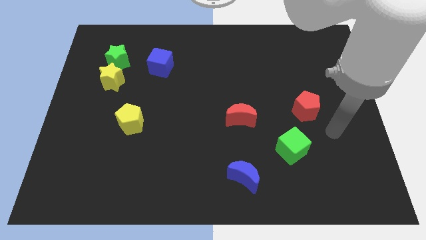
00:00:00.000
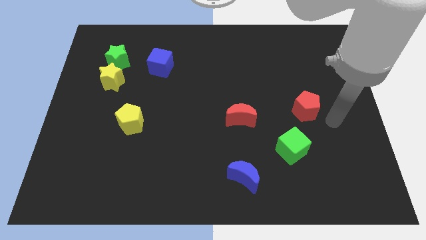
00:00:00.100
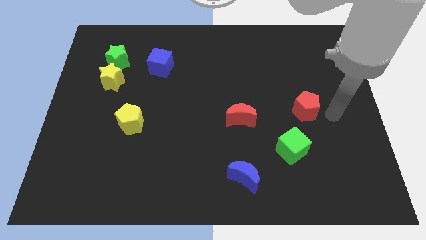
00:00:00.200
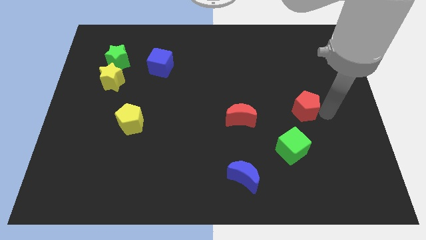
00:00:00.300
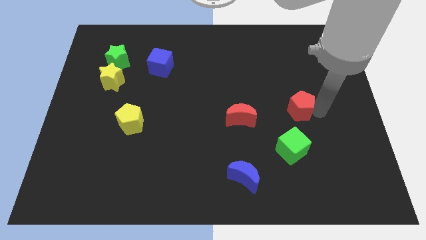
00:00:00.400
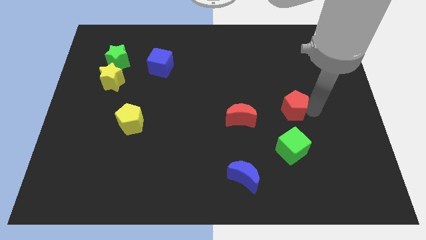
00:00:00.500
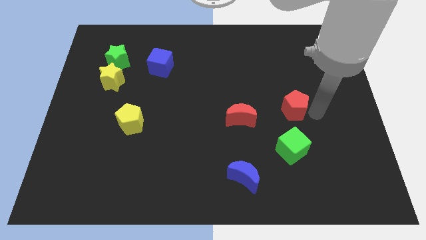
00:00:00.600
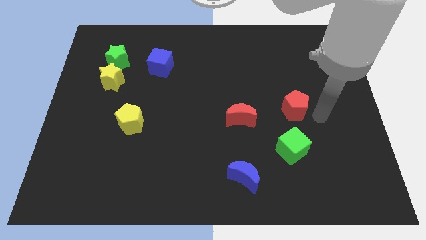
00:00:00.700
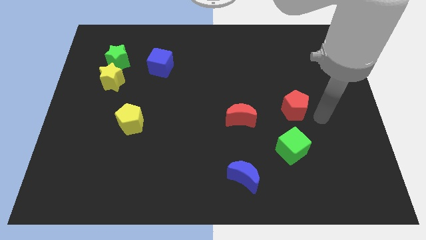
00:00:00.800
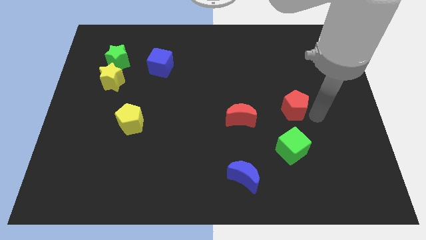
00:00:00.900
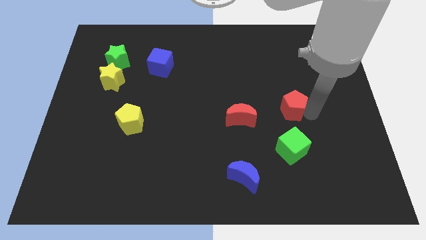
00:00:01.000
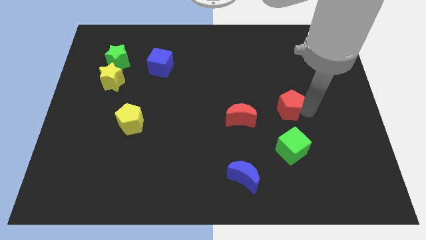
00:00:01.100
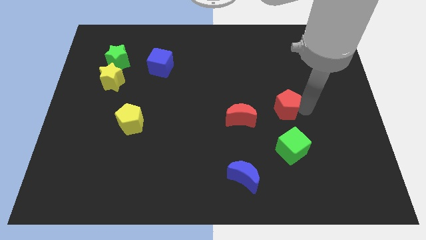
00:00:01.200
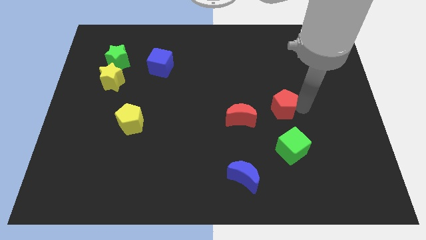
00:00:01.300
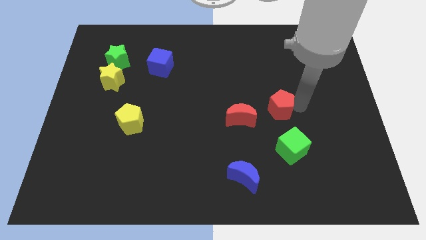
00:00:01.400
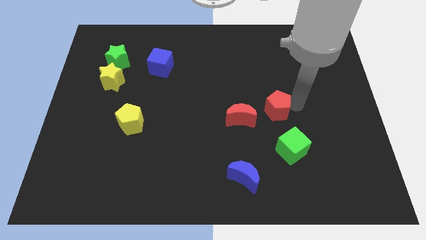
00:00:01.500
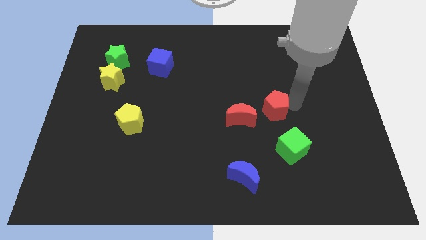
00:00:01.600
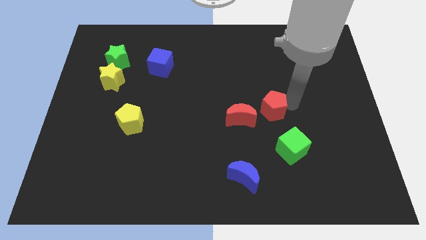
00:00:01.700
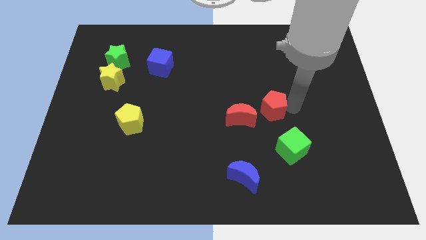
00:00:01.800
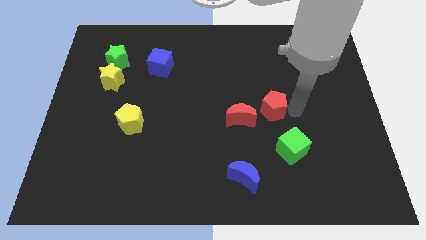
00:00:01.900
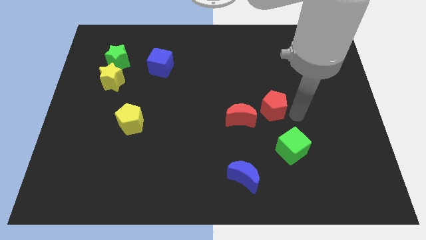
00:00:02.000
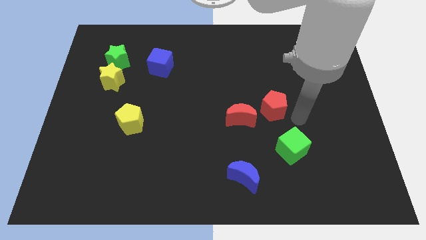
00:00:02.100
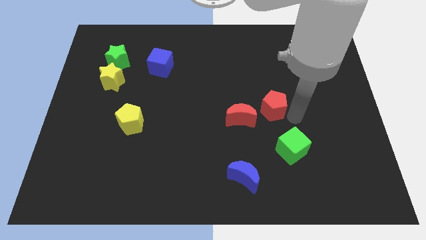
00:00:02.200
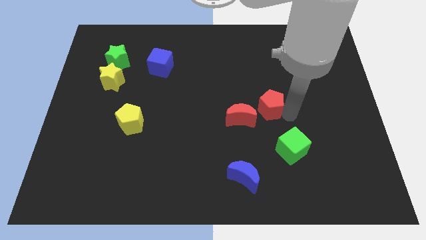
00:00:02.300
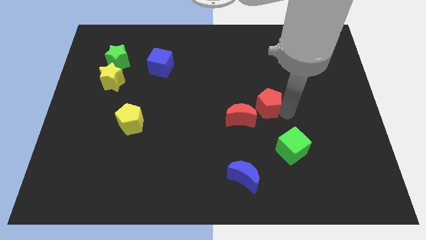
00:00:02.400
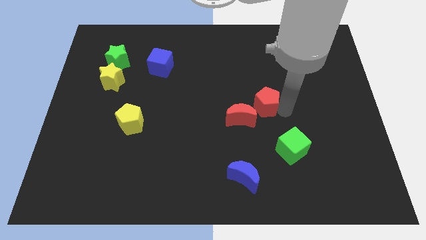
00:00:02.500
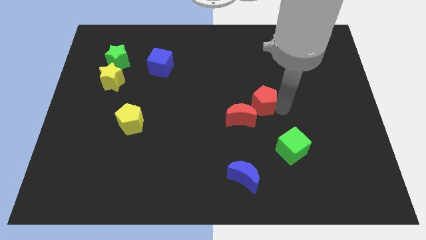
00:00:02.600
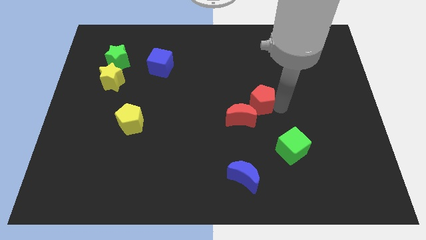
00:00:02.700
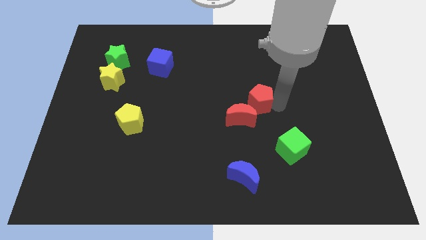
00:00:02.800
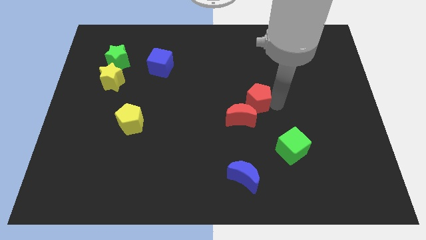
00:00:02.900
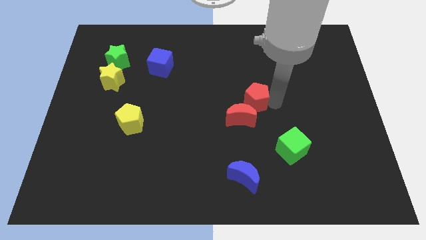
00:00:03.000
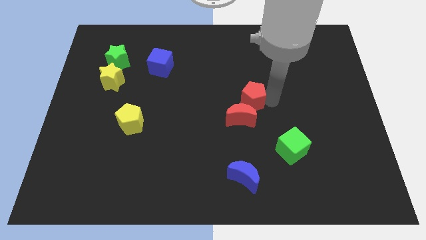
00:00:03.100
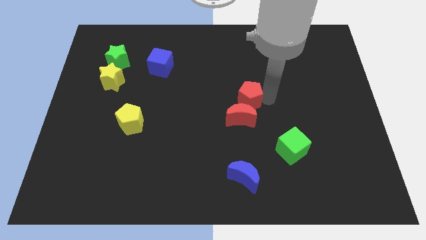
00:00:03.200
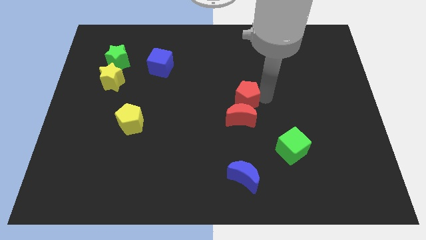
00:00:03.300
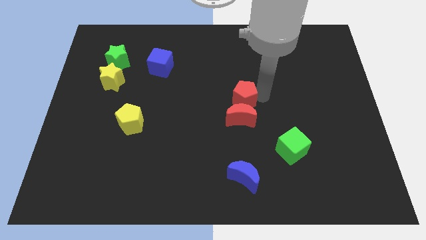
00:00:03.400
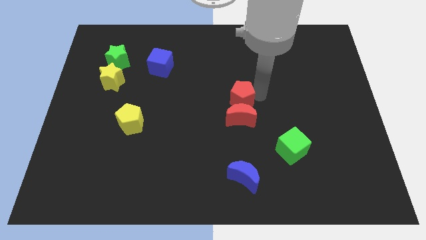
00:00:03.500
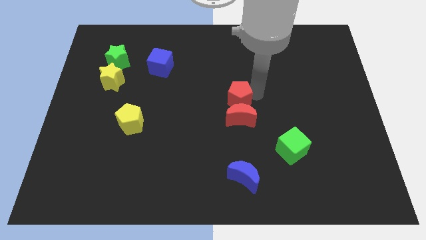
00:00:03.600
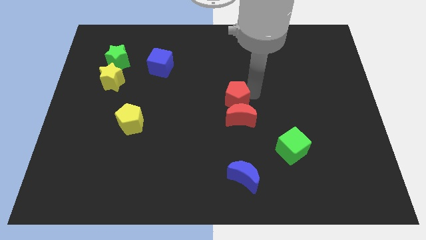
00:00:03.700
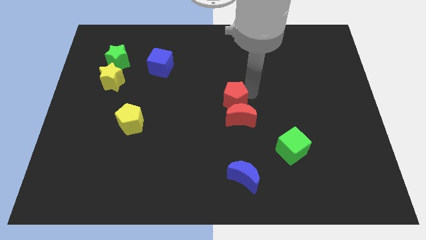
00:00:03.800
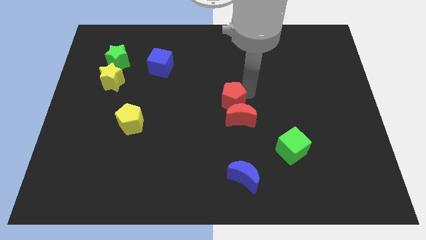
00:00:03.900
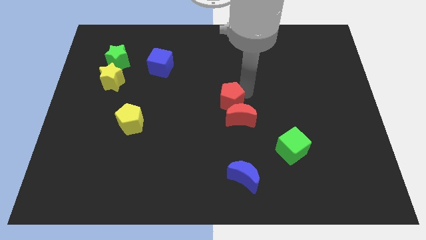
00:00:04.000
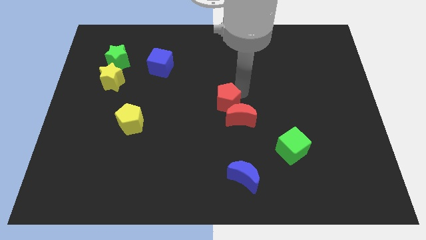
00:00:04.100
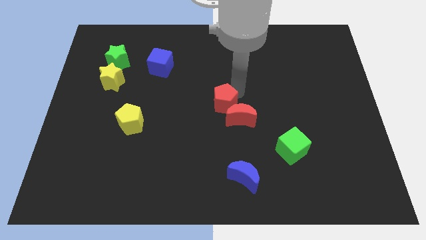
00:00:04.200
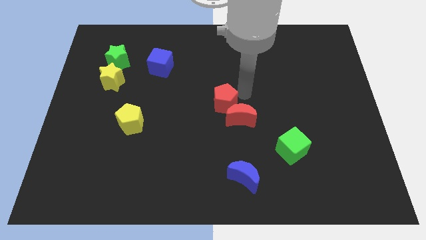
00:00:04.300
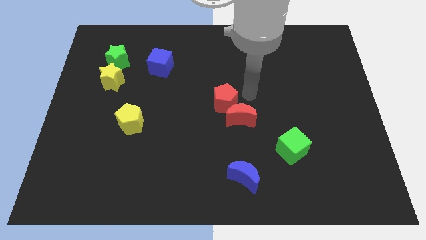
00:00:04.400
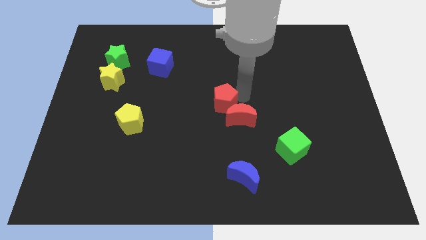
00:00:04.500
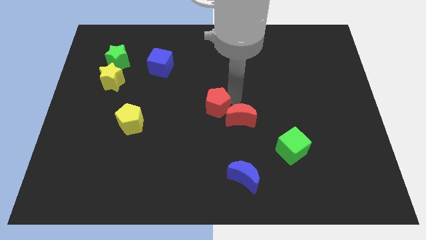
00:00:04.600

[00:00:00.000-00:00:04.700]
move the red pentagon to the left

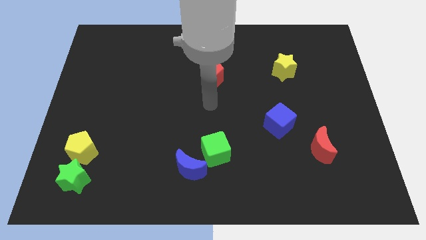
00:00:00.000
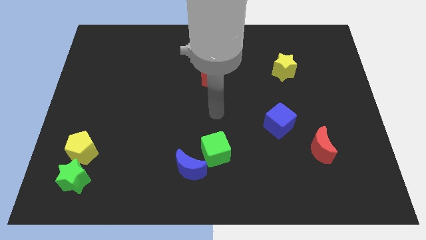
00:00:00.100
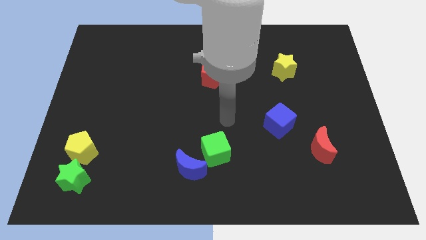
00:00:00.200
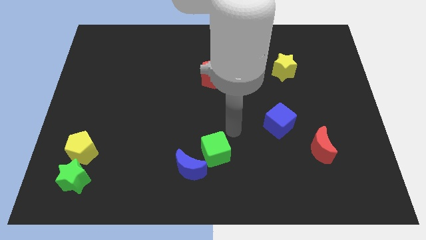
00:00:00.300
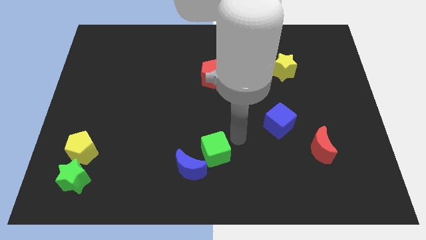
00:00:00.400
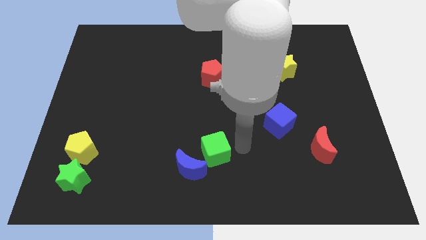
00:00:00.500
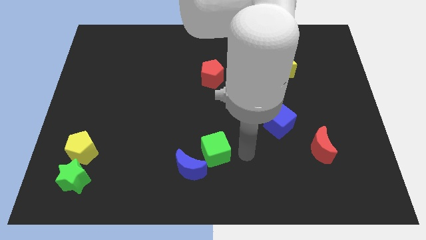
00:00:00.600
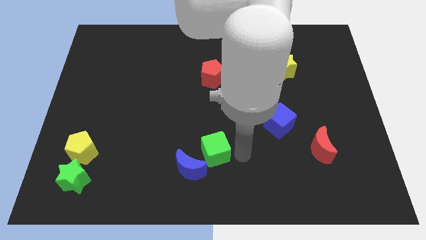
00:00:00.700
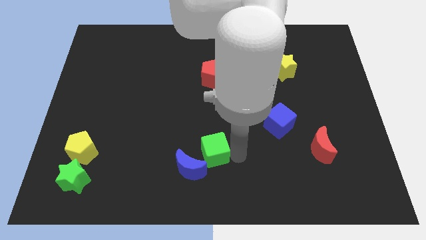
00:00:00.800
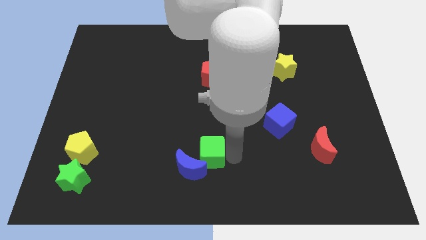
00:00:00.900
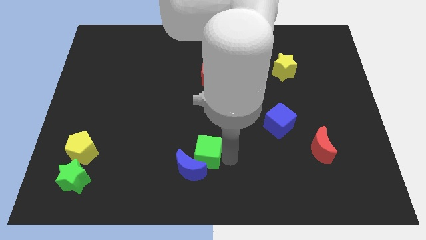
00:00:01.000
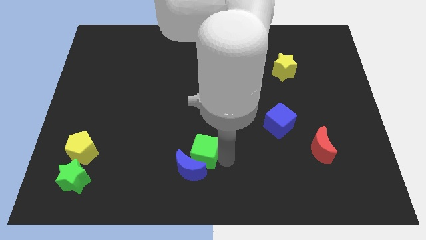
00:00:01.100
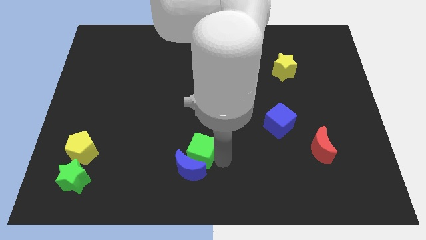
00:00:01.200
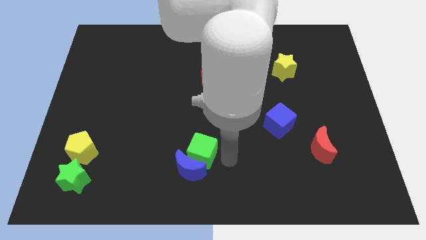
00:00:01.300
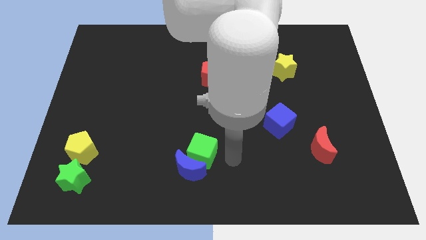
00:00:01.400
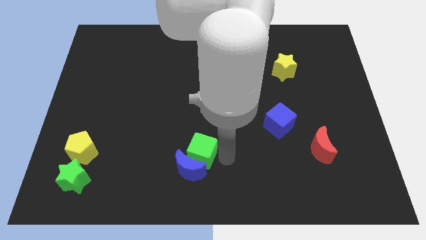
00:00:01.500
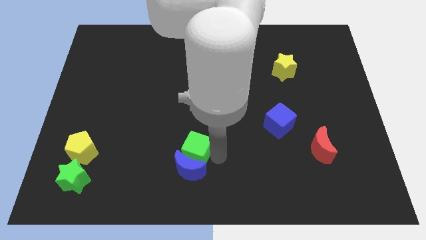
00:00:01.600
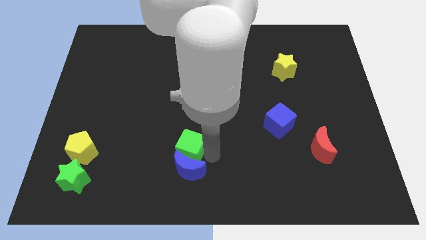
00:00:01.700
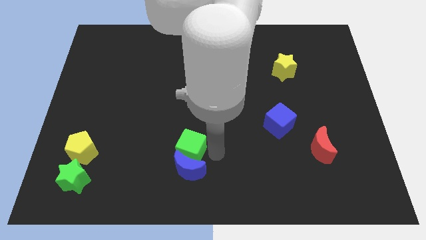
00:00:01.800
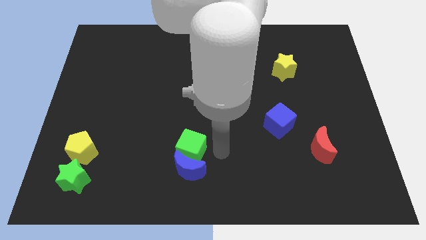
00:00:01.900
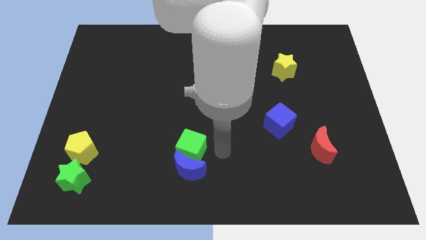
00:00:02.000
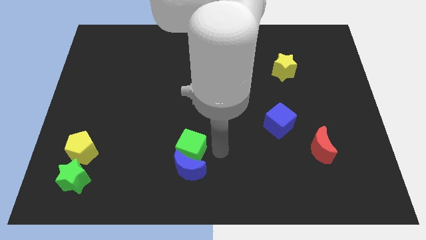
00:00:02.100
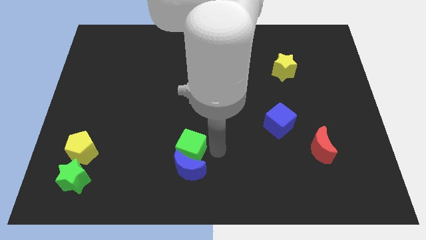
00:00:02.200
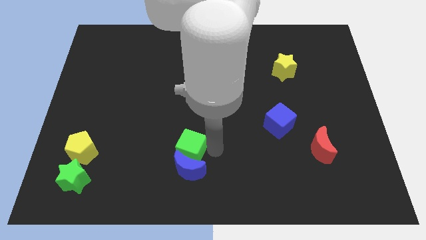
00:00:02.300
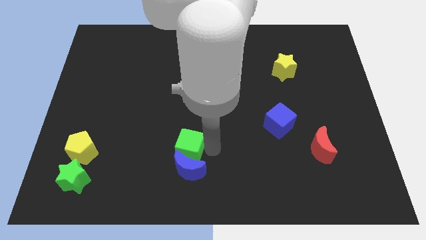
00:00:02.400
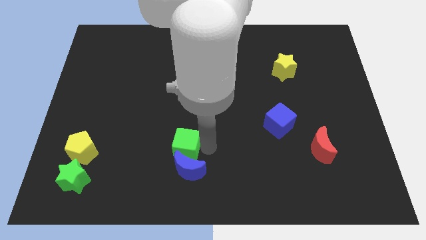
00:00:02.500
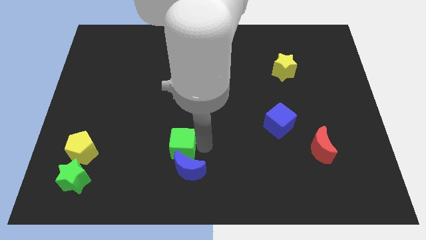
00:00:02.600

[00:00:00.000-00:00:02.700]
move the green cube left somewhat

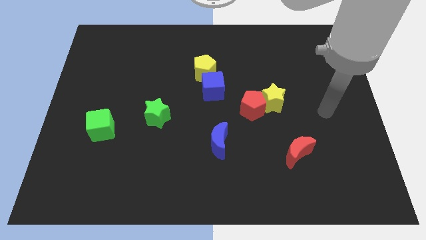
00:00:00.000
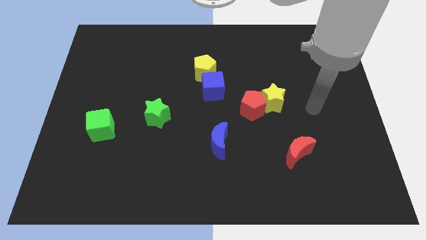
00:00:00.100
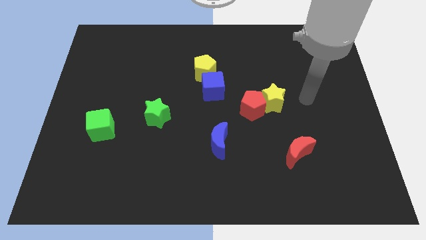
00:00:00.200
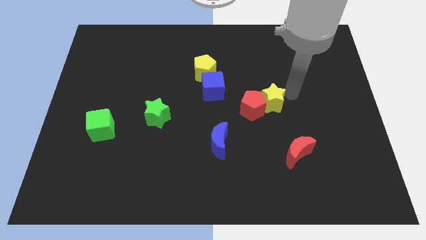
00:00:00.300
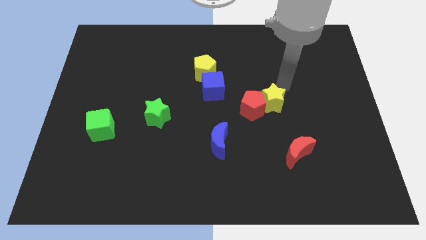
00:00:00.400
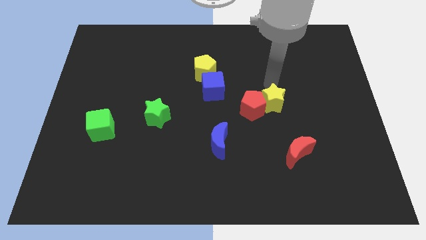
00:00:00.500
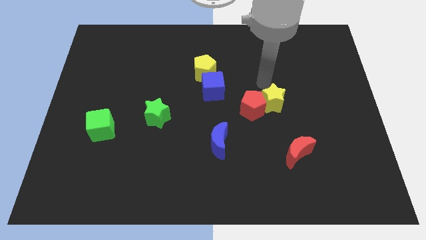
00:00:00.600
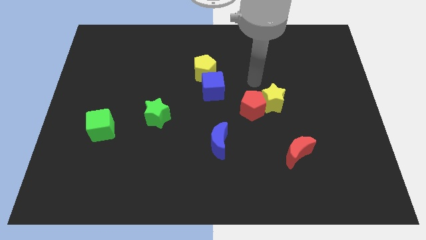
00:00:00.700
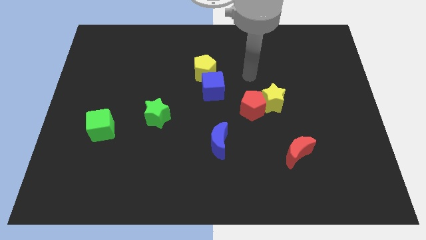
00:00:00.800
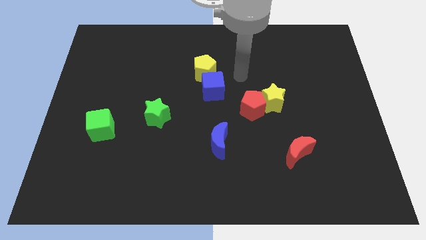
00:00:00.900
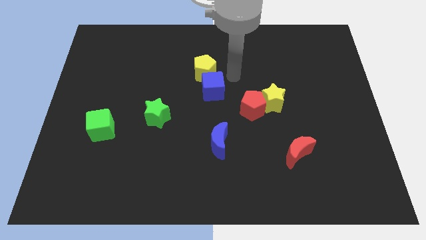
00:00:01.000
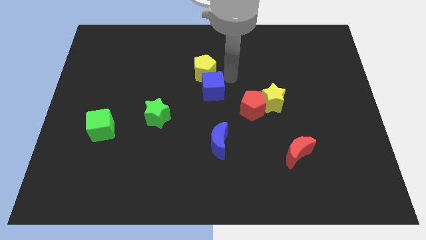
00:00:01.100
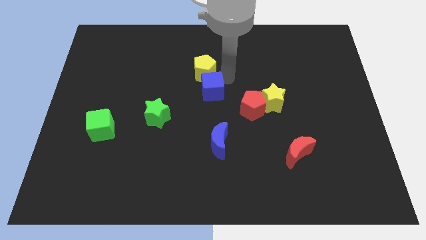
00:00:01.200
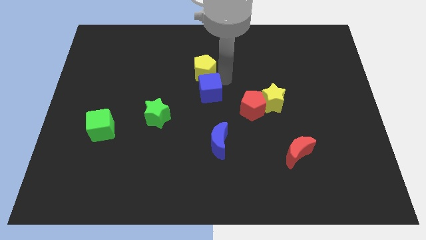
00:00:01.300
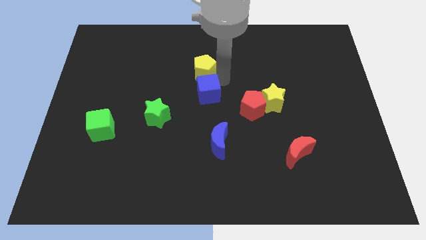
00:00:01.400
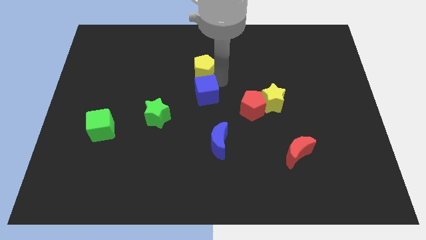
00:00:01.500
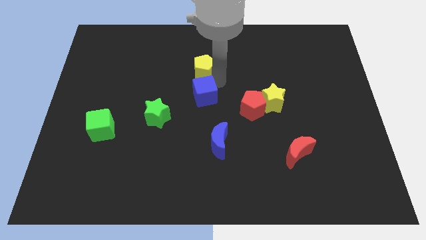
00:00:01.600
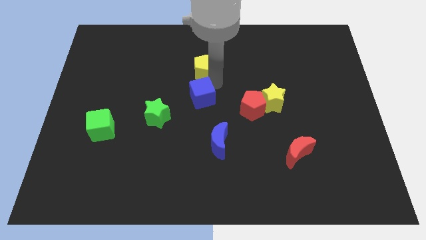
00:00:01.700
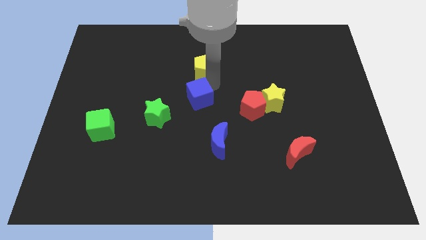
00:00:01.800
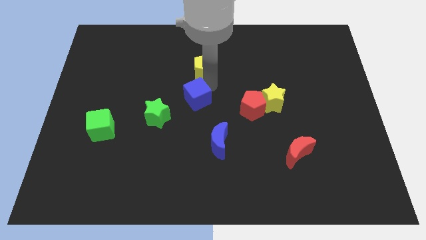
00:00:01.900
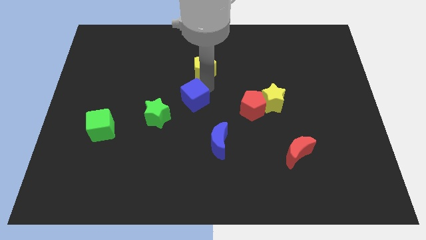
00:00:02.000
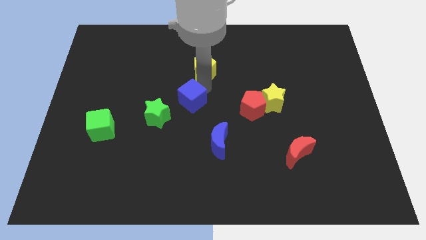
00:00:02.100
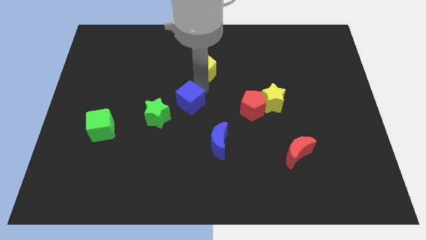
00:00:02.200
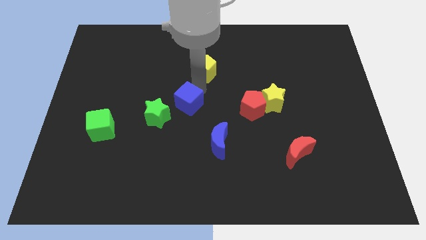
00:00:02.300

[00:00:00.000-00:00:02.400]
move the blue cube diagonally downwards and to the left a bit
